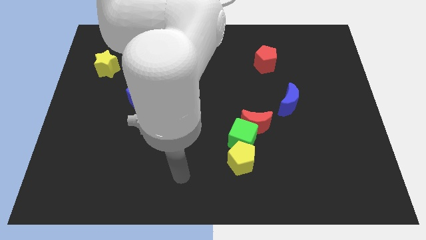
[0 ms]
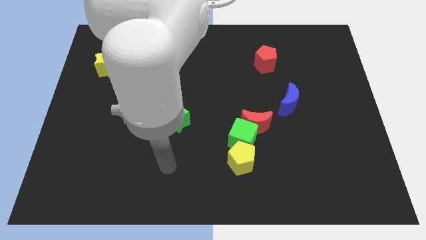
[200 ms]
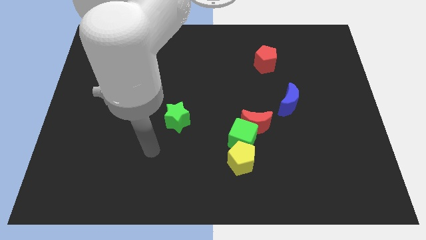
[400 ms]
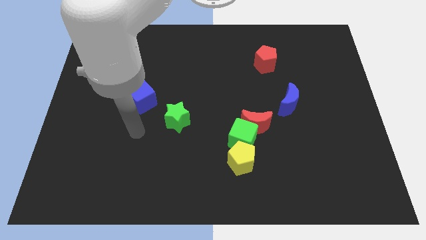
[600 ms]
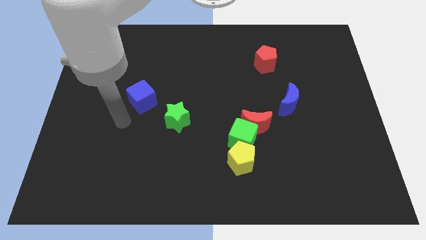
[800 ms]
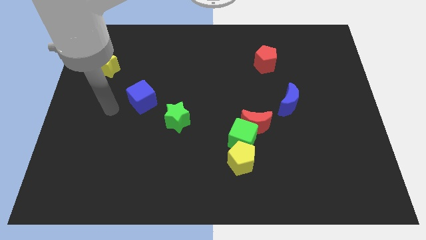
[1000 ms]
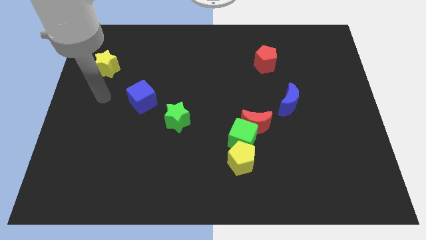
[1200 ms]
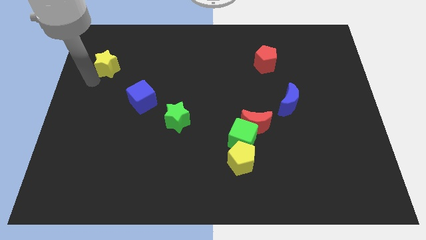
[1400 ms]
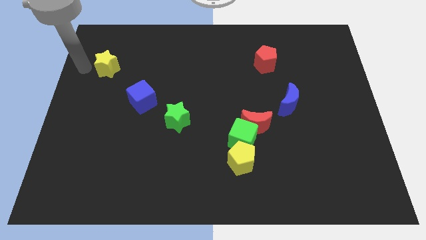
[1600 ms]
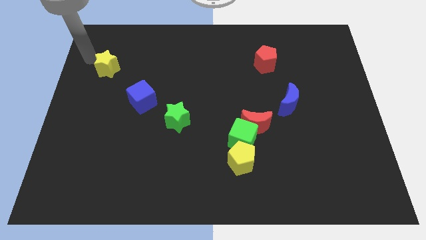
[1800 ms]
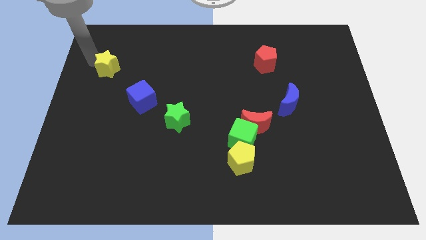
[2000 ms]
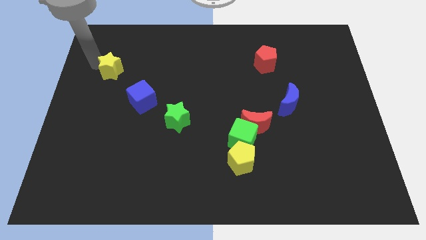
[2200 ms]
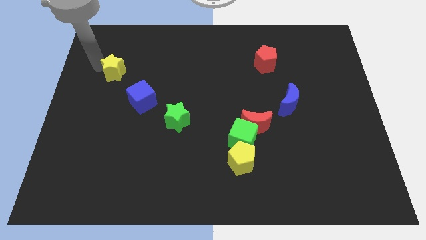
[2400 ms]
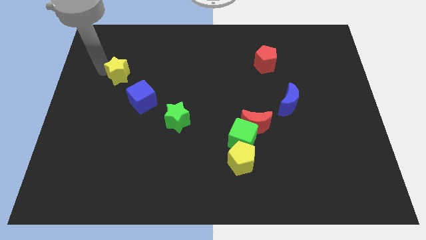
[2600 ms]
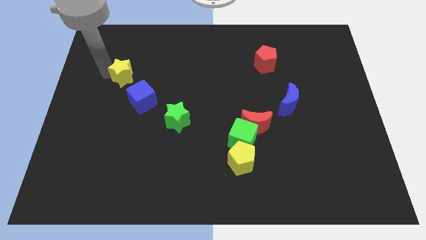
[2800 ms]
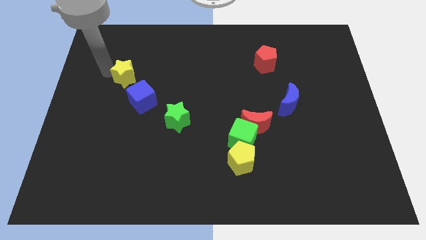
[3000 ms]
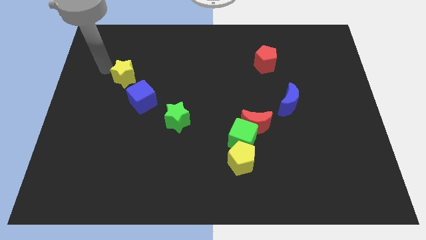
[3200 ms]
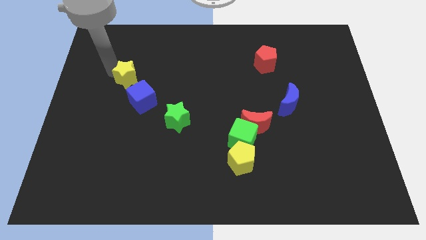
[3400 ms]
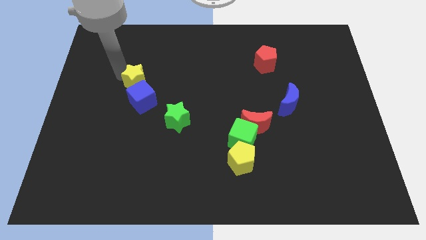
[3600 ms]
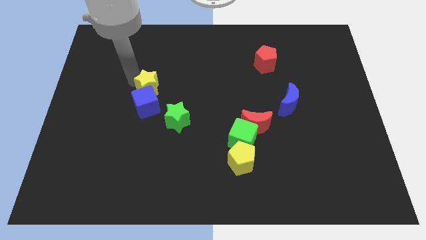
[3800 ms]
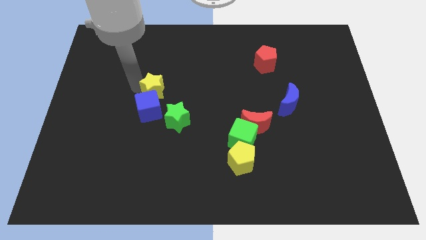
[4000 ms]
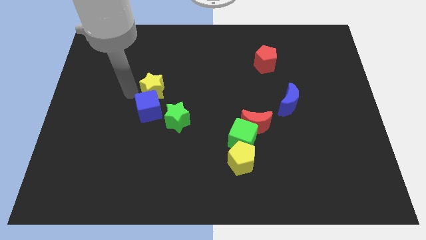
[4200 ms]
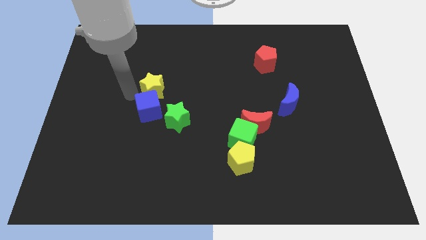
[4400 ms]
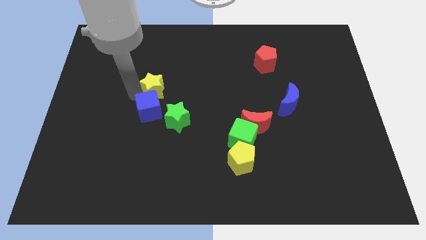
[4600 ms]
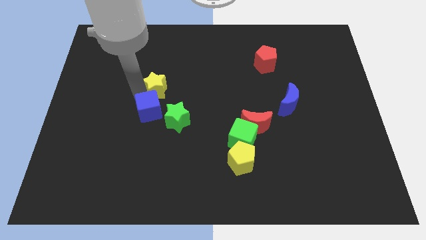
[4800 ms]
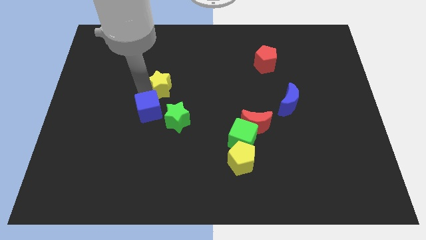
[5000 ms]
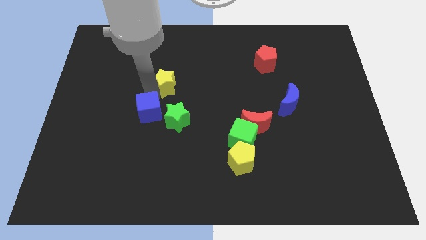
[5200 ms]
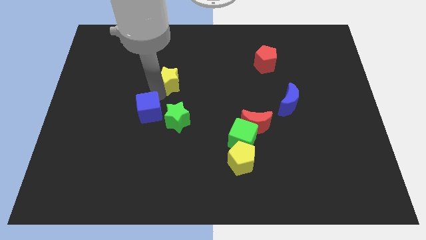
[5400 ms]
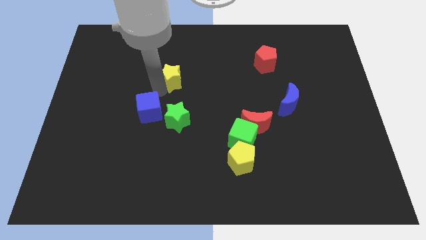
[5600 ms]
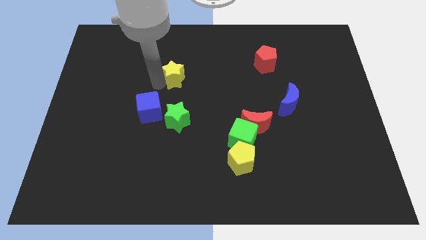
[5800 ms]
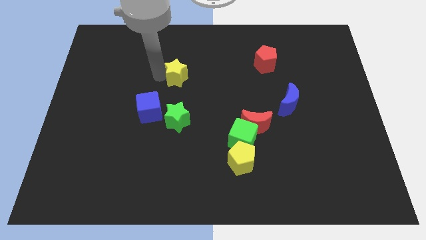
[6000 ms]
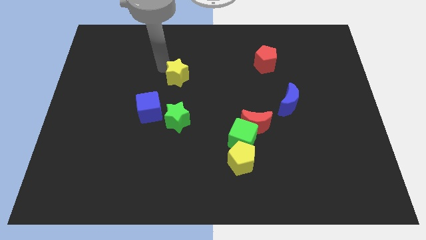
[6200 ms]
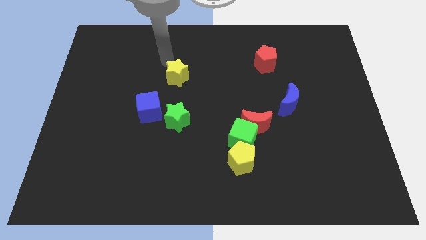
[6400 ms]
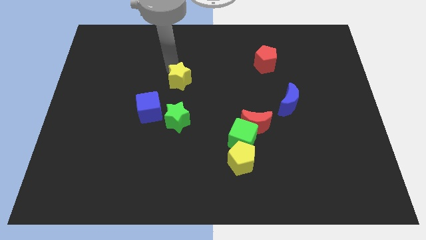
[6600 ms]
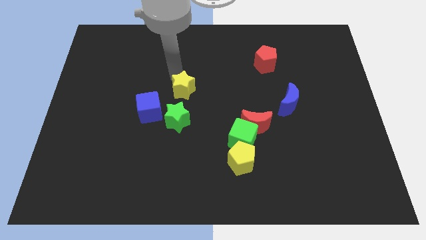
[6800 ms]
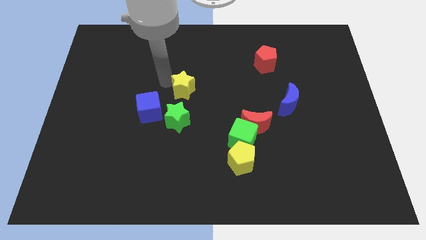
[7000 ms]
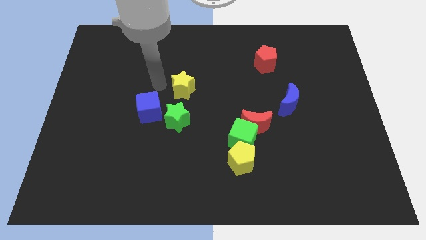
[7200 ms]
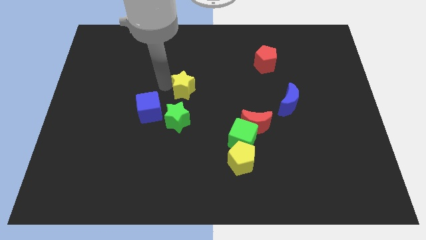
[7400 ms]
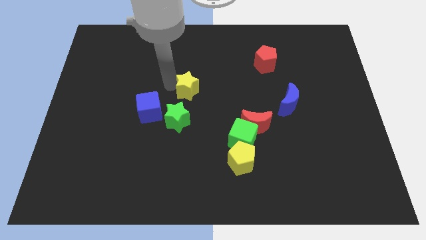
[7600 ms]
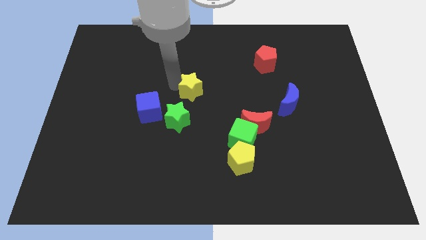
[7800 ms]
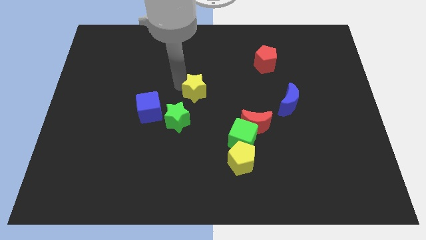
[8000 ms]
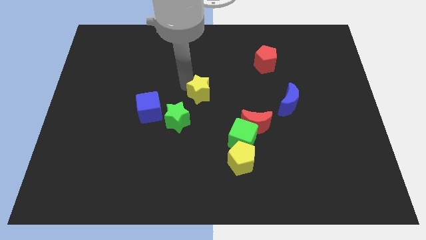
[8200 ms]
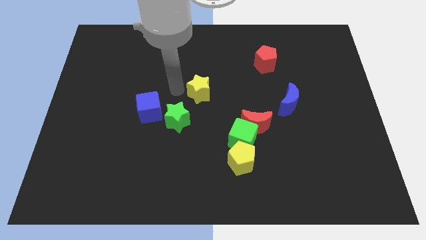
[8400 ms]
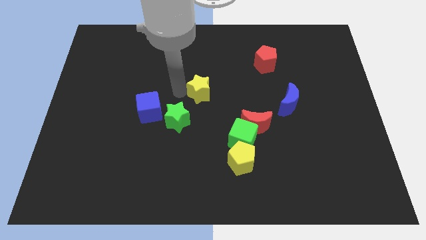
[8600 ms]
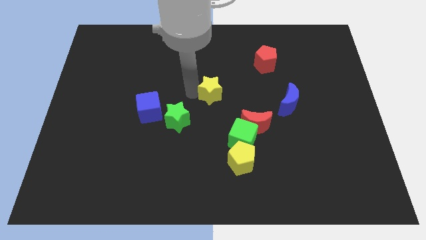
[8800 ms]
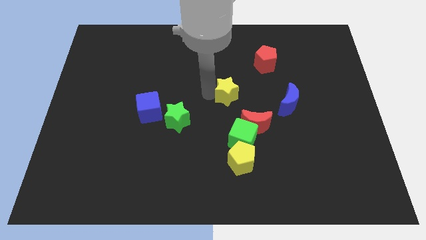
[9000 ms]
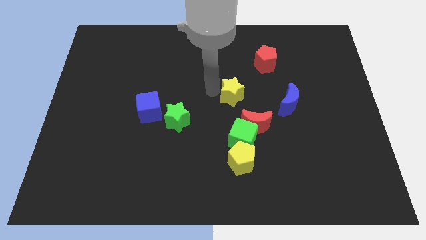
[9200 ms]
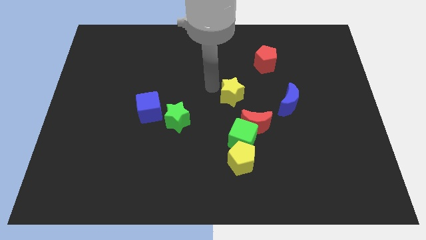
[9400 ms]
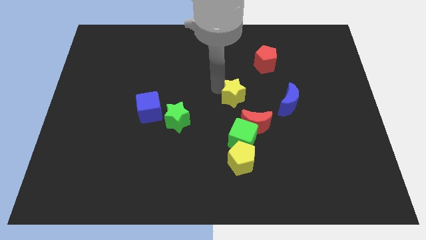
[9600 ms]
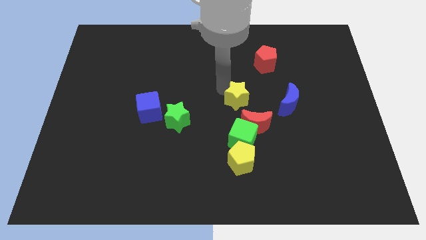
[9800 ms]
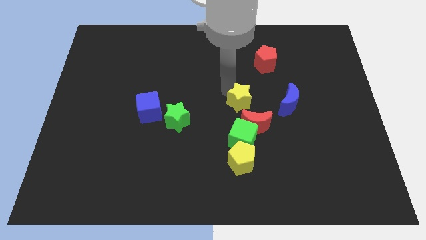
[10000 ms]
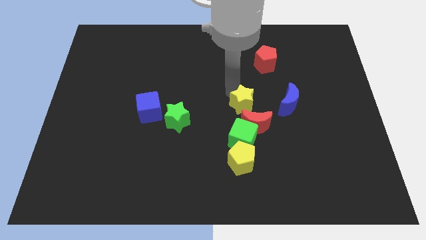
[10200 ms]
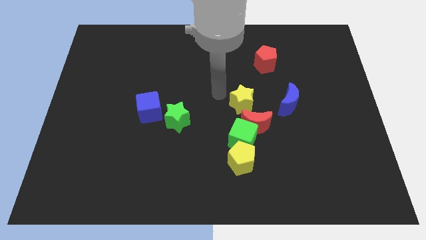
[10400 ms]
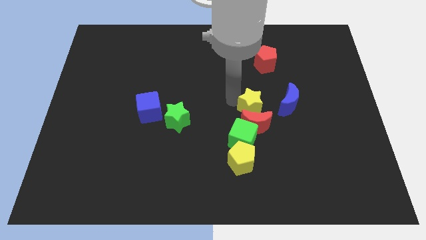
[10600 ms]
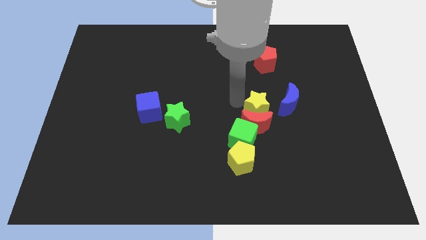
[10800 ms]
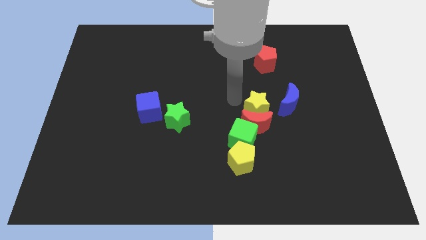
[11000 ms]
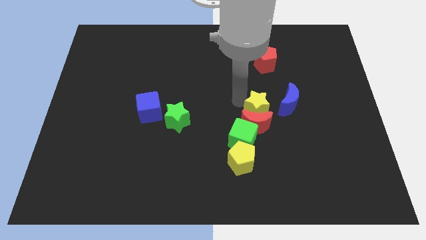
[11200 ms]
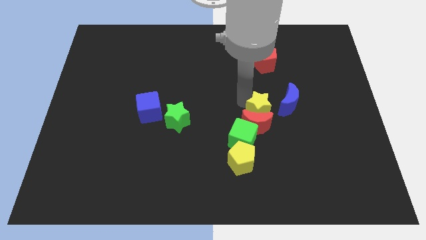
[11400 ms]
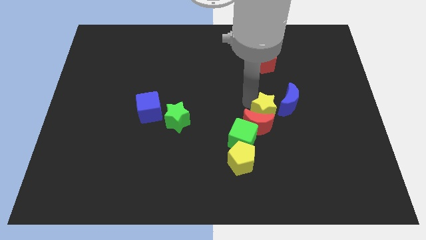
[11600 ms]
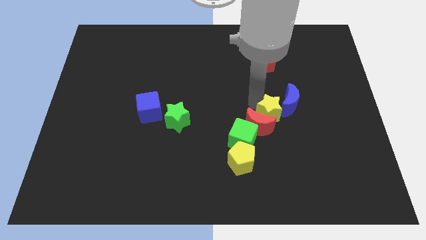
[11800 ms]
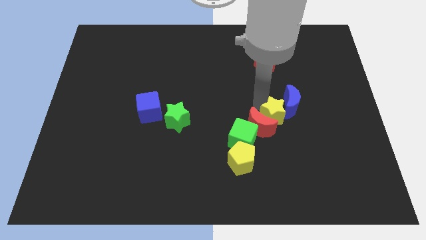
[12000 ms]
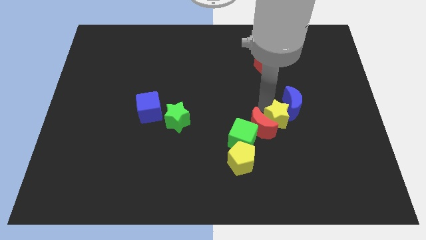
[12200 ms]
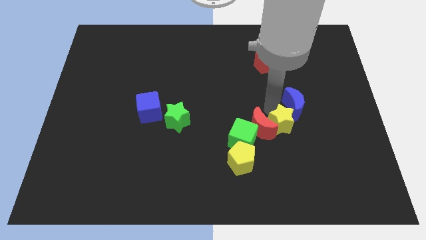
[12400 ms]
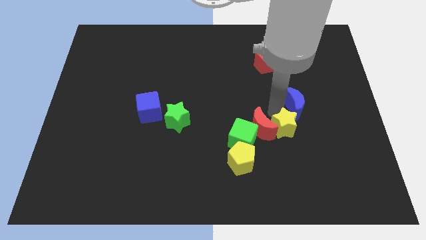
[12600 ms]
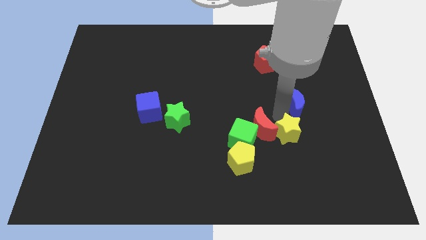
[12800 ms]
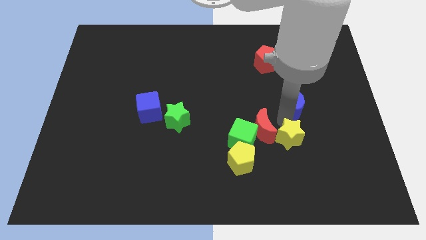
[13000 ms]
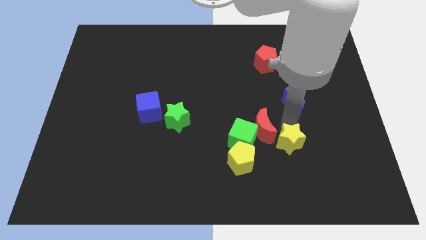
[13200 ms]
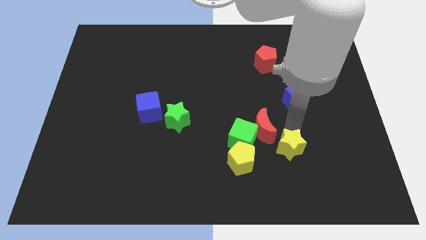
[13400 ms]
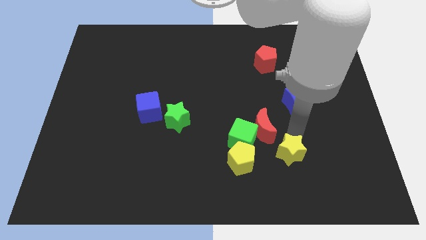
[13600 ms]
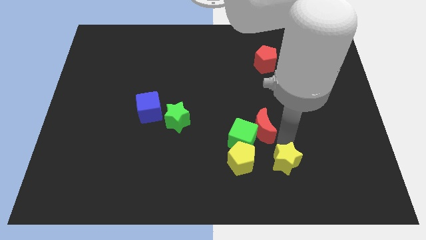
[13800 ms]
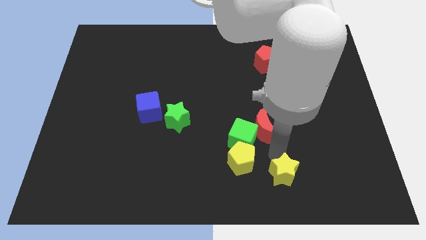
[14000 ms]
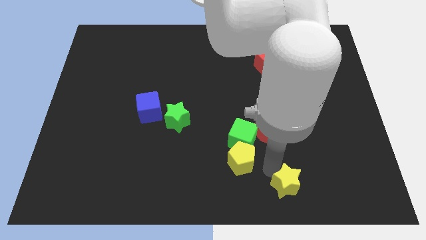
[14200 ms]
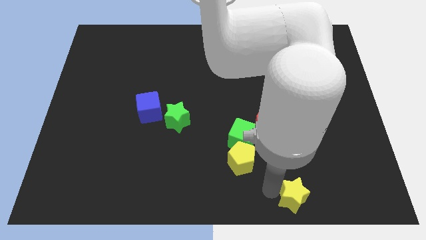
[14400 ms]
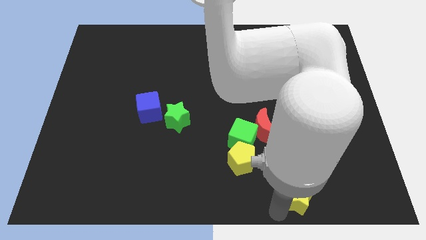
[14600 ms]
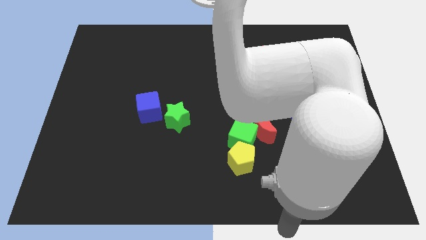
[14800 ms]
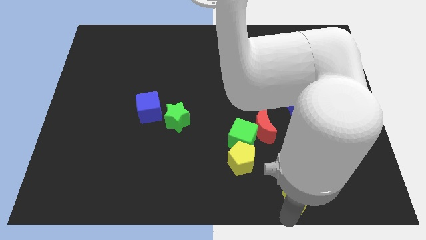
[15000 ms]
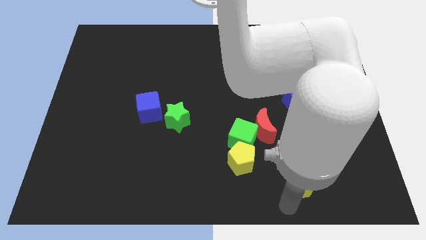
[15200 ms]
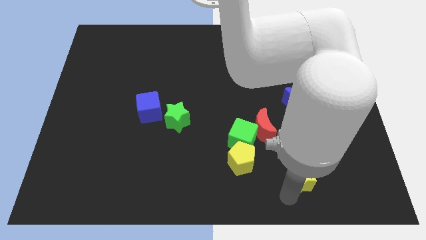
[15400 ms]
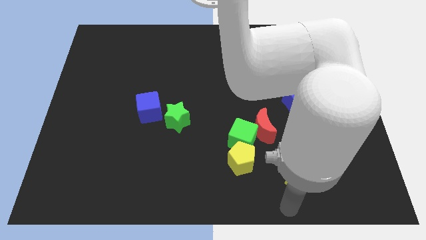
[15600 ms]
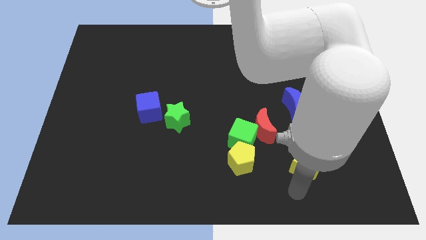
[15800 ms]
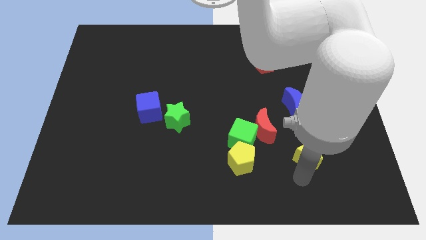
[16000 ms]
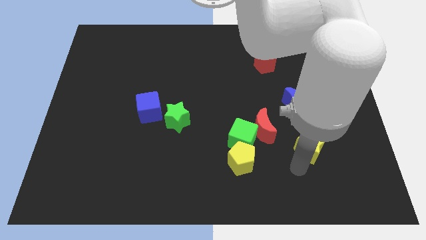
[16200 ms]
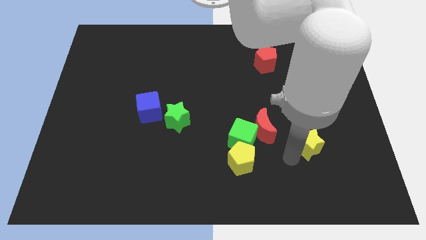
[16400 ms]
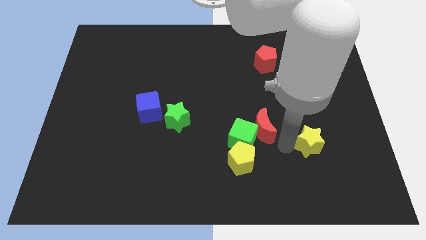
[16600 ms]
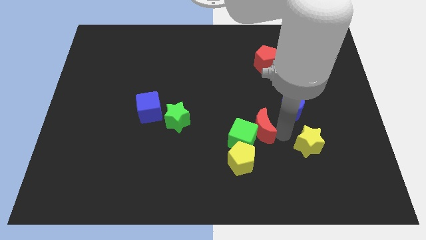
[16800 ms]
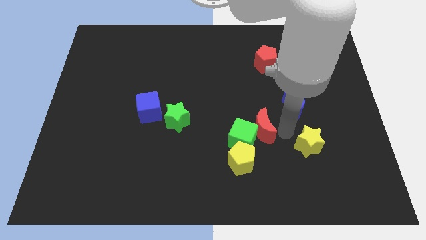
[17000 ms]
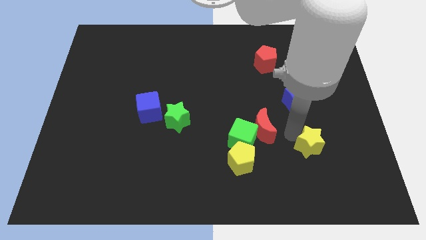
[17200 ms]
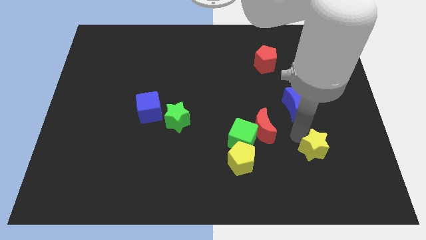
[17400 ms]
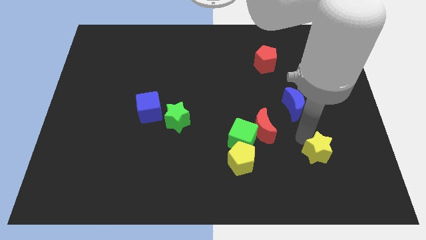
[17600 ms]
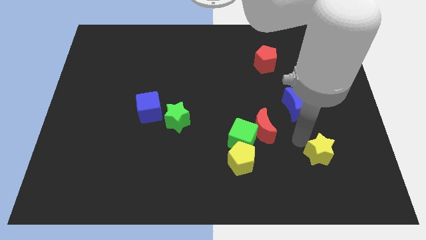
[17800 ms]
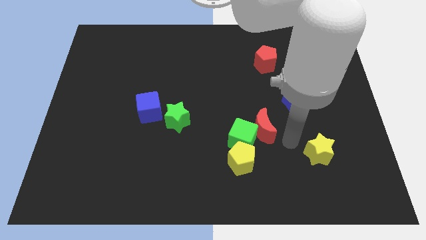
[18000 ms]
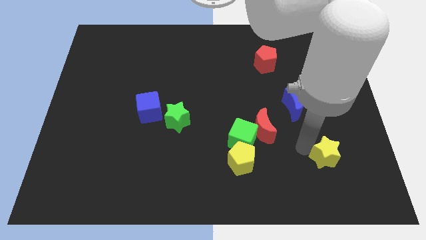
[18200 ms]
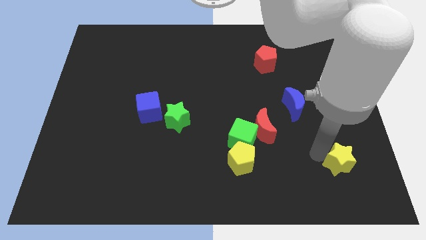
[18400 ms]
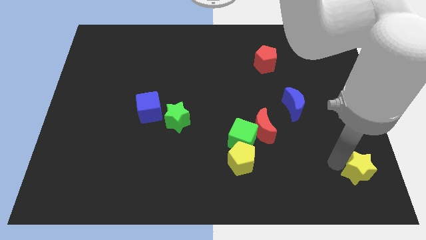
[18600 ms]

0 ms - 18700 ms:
put the yellow star to the bottom right of the board
